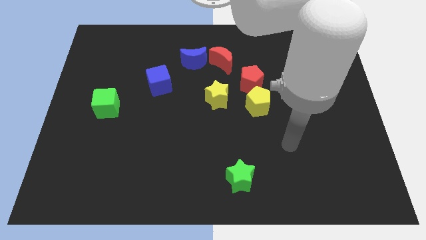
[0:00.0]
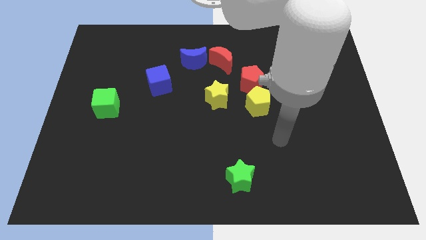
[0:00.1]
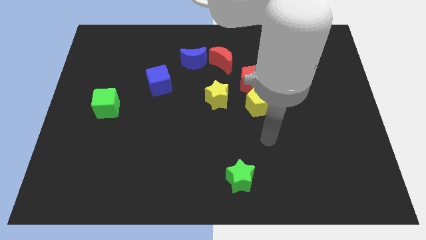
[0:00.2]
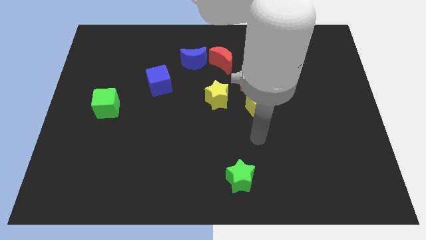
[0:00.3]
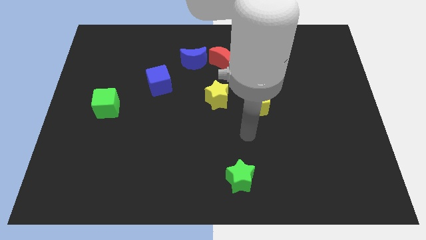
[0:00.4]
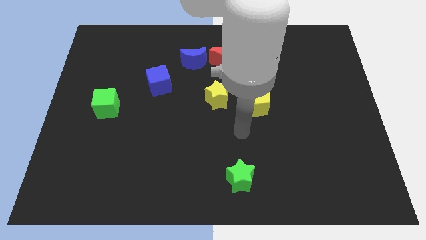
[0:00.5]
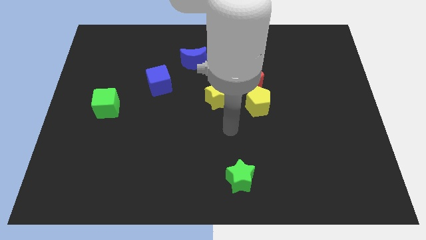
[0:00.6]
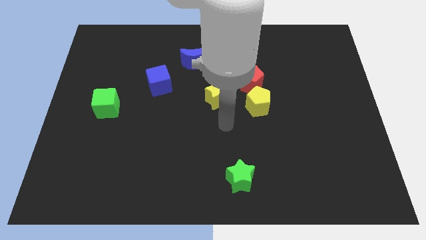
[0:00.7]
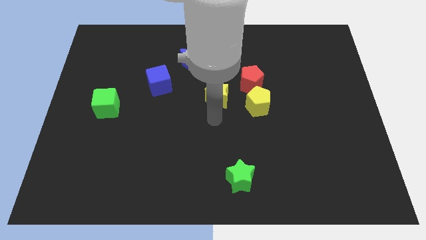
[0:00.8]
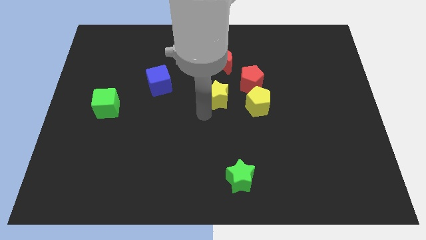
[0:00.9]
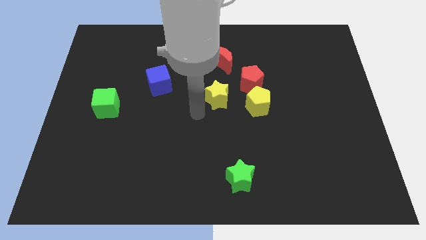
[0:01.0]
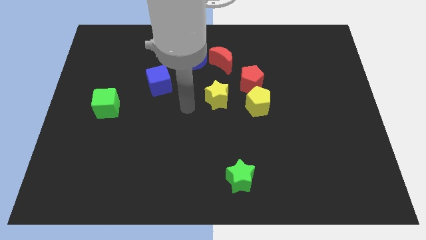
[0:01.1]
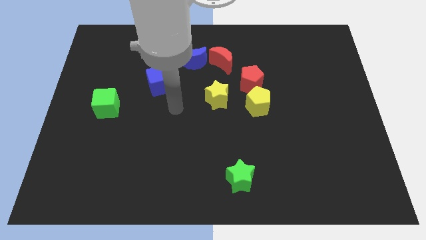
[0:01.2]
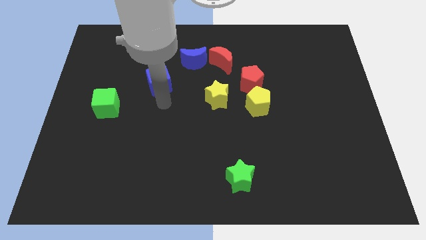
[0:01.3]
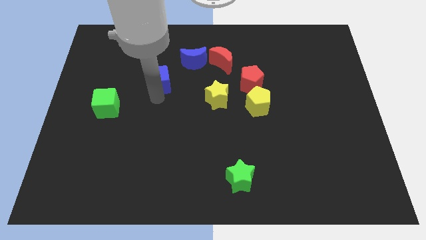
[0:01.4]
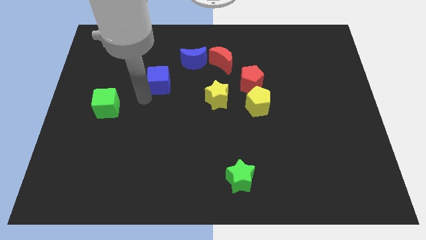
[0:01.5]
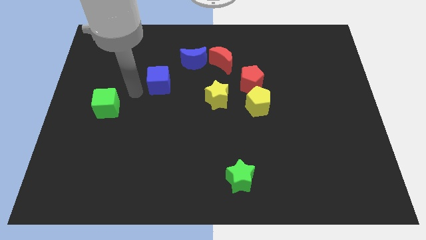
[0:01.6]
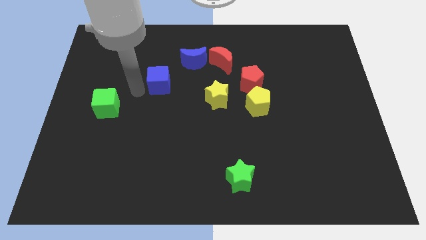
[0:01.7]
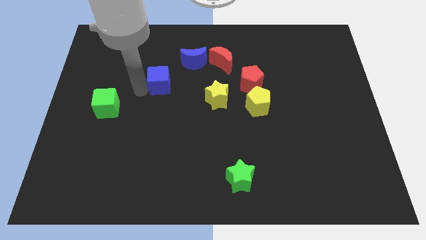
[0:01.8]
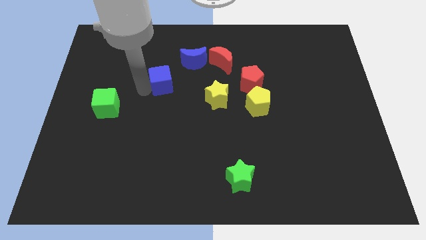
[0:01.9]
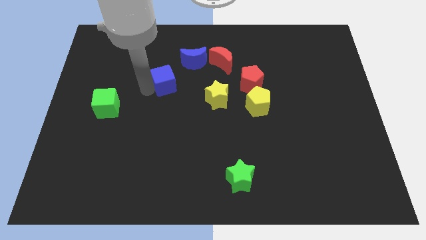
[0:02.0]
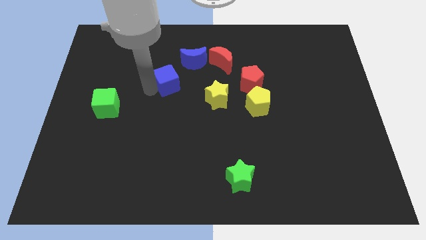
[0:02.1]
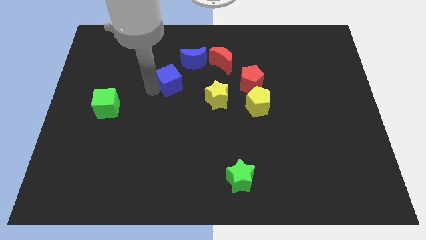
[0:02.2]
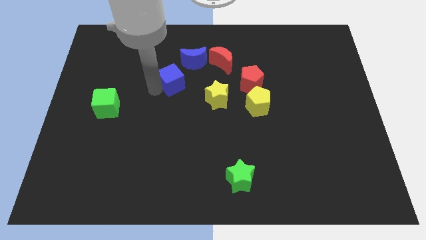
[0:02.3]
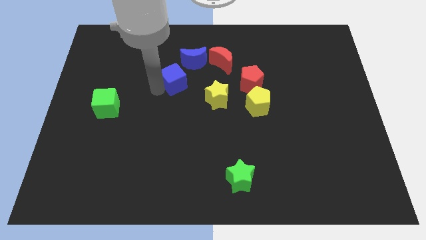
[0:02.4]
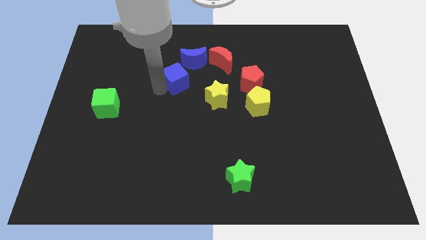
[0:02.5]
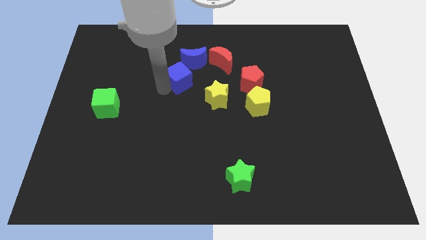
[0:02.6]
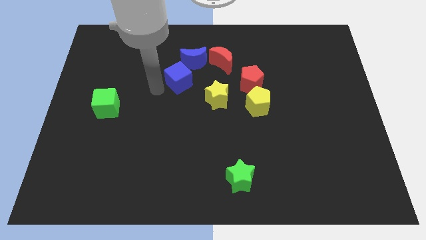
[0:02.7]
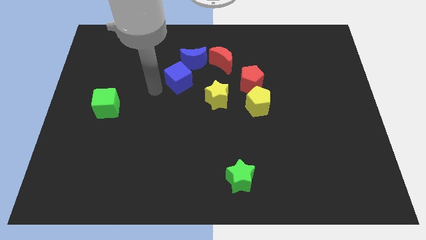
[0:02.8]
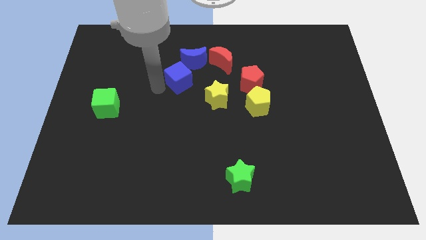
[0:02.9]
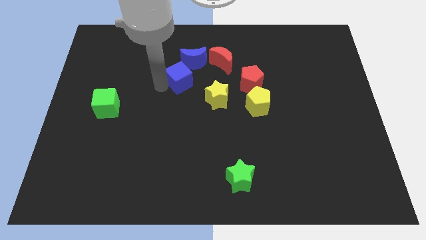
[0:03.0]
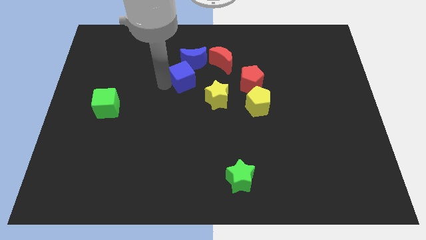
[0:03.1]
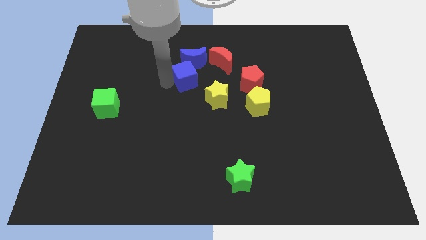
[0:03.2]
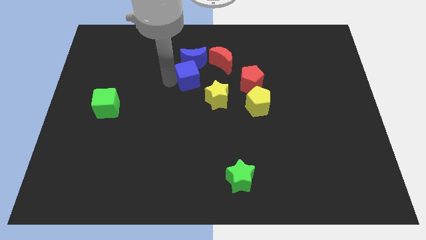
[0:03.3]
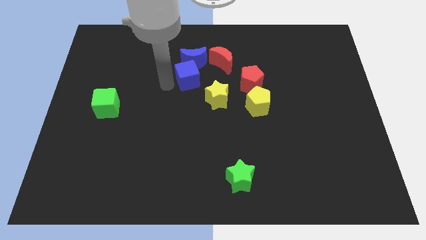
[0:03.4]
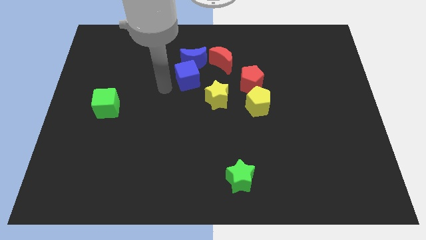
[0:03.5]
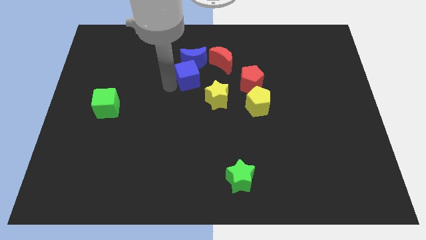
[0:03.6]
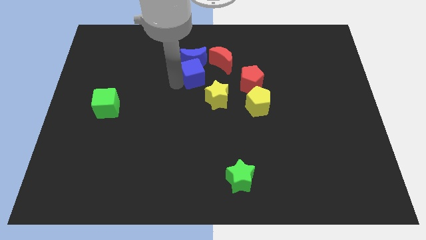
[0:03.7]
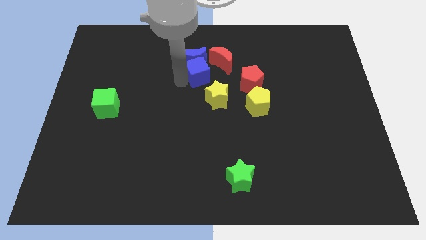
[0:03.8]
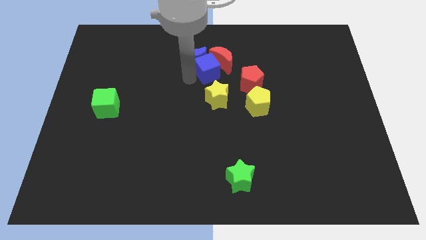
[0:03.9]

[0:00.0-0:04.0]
push the blue cube to the red moon

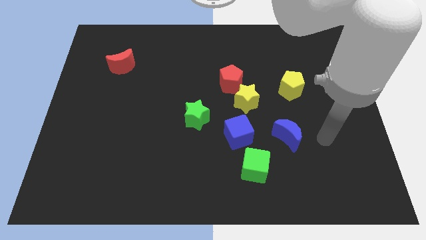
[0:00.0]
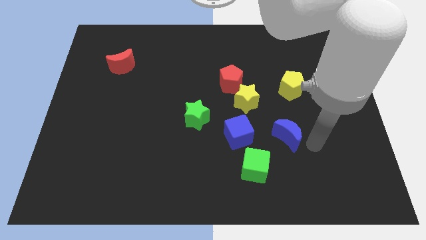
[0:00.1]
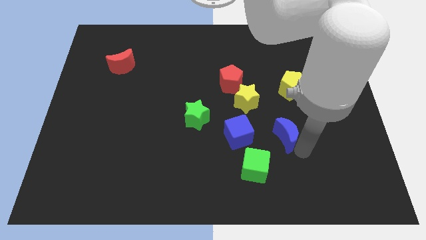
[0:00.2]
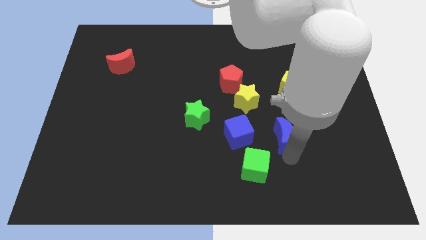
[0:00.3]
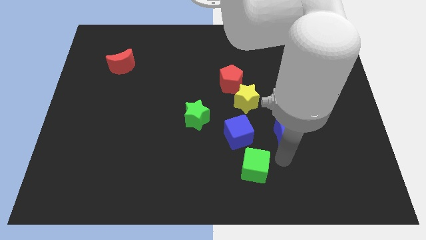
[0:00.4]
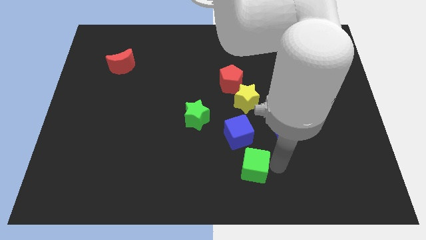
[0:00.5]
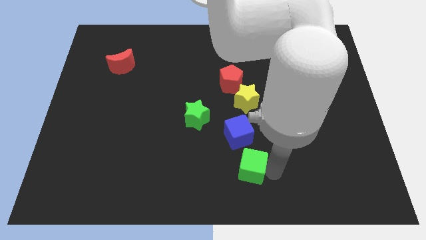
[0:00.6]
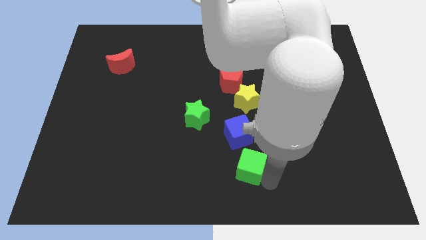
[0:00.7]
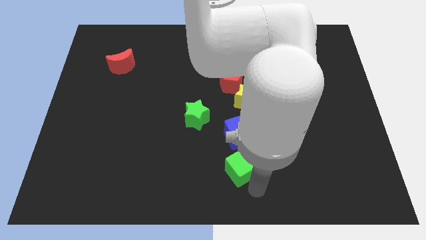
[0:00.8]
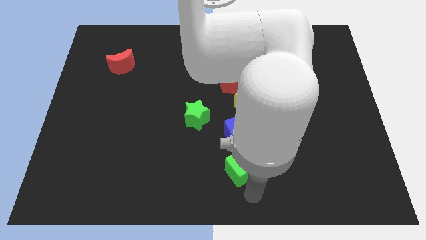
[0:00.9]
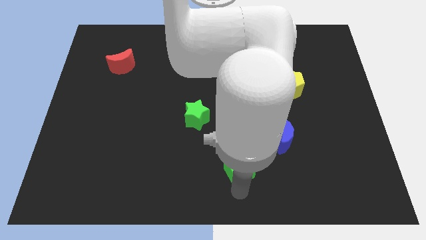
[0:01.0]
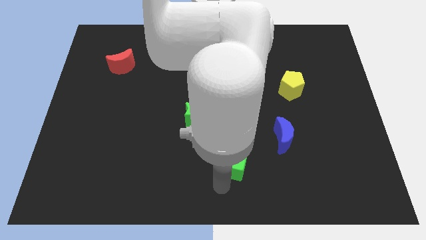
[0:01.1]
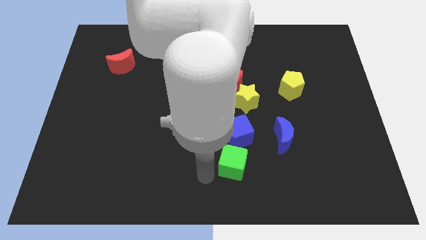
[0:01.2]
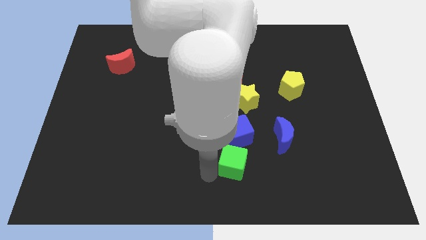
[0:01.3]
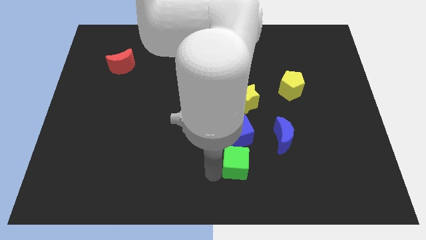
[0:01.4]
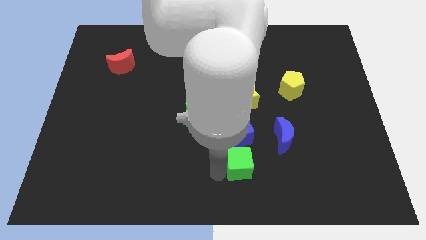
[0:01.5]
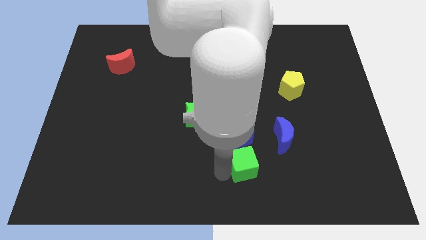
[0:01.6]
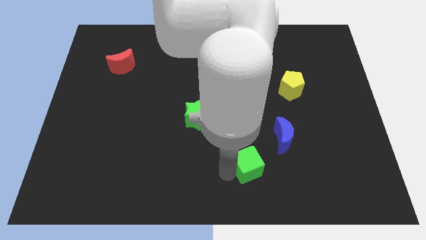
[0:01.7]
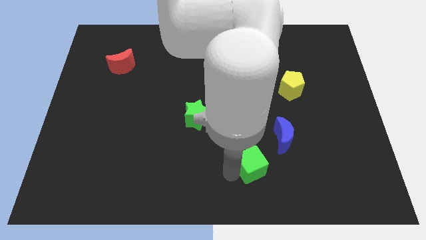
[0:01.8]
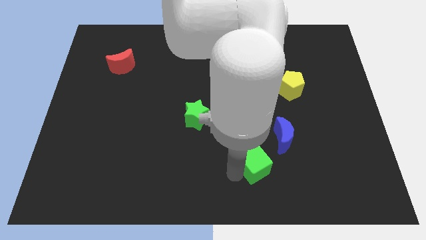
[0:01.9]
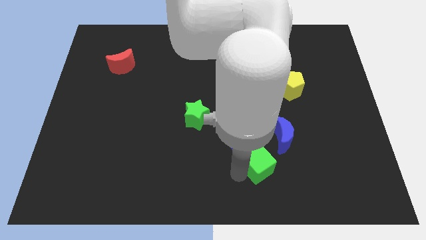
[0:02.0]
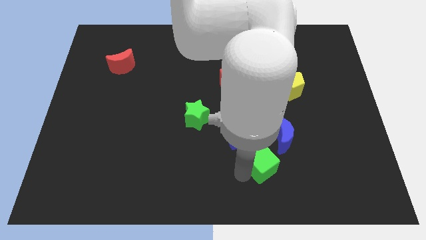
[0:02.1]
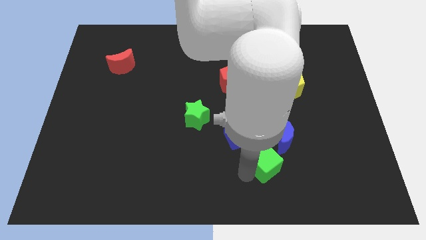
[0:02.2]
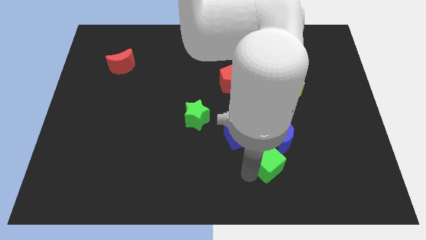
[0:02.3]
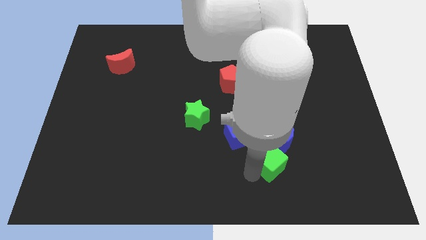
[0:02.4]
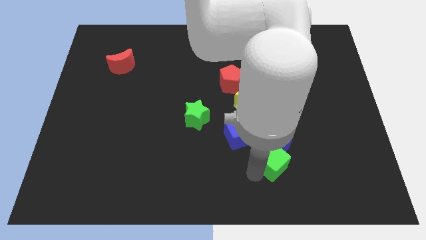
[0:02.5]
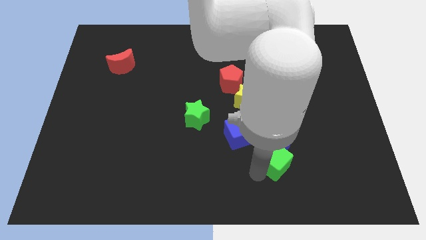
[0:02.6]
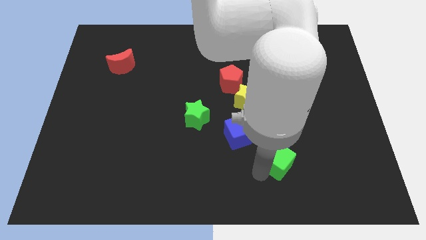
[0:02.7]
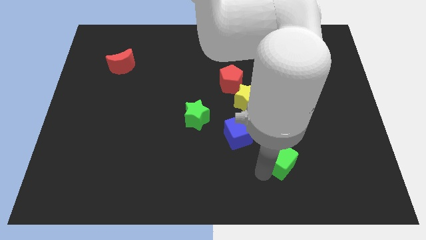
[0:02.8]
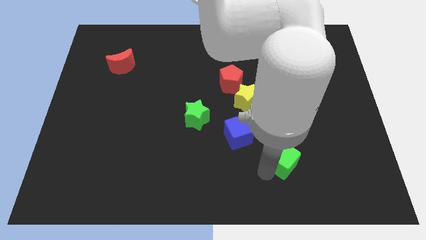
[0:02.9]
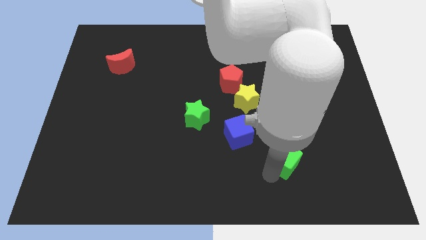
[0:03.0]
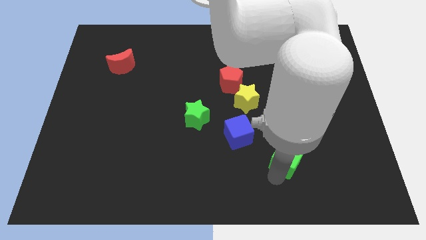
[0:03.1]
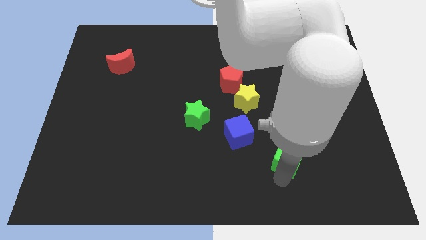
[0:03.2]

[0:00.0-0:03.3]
move the green cube towards the blue moon

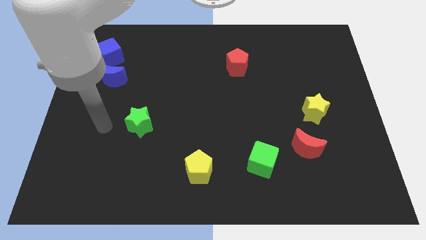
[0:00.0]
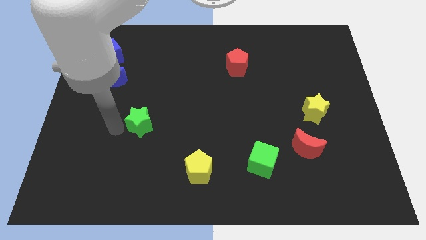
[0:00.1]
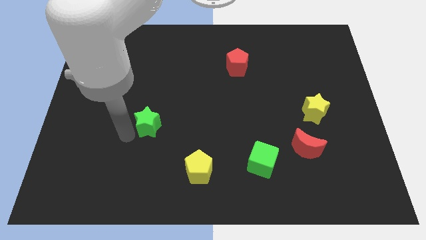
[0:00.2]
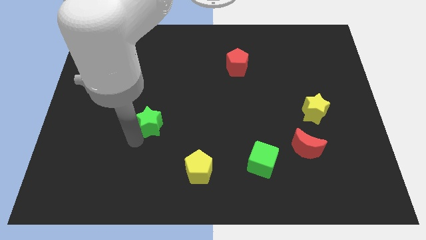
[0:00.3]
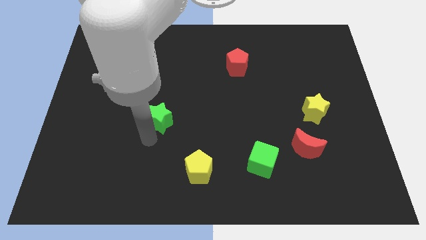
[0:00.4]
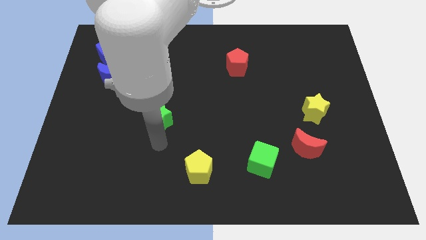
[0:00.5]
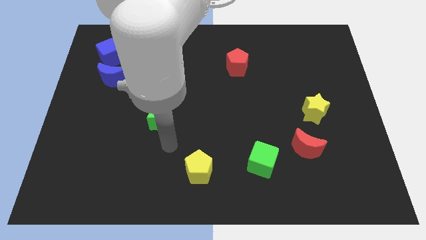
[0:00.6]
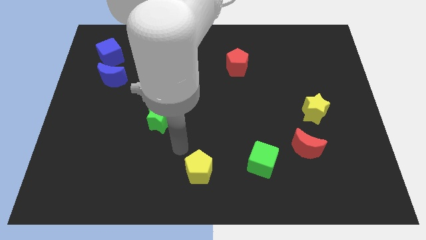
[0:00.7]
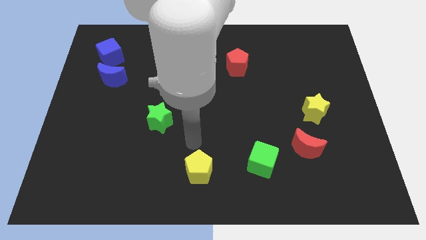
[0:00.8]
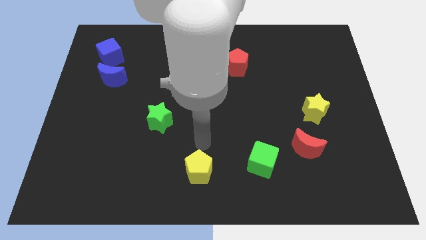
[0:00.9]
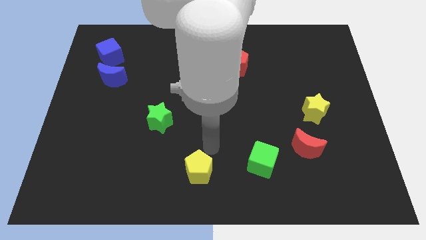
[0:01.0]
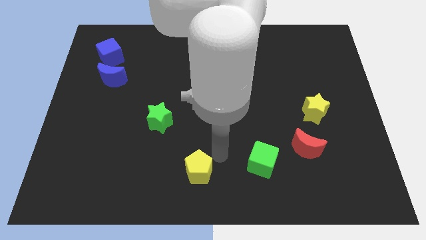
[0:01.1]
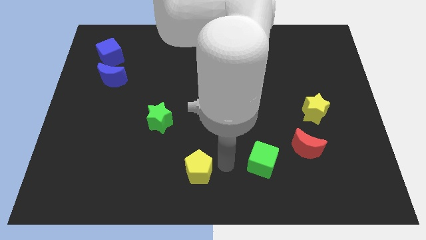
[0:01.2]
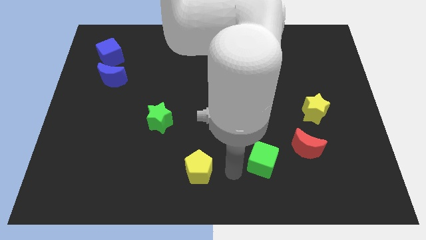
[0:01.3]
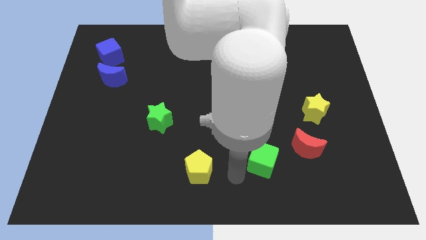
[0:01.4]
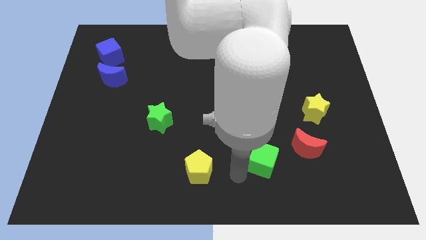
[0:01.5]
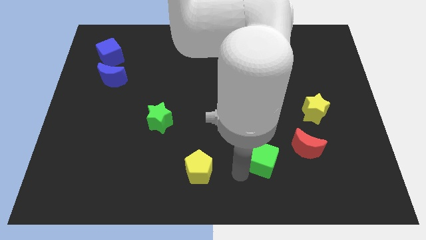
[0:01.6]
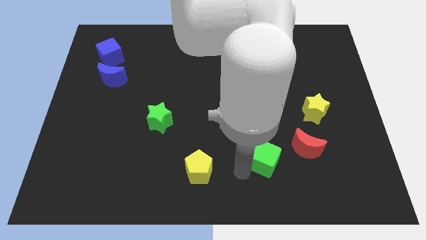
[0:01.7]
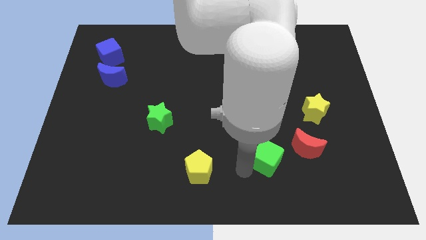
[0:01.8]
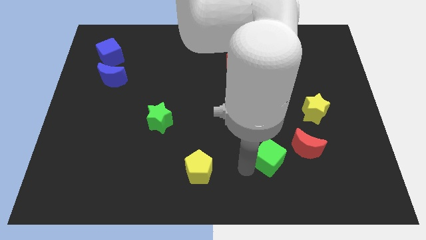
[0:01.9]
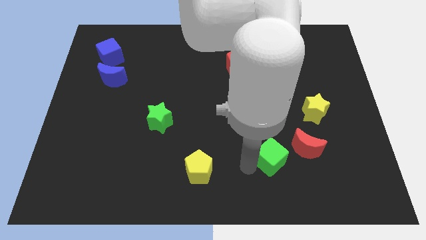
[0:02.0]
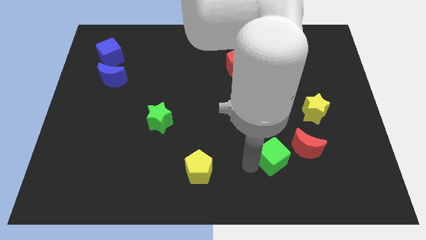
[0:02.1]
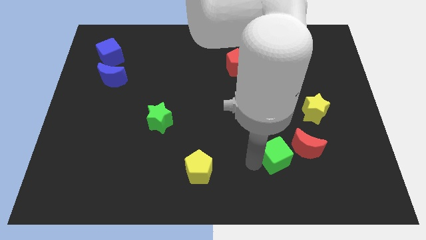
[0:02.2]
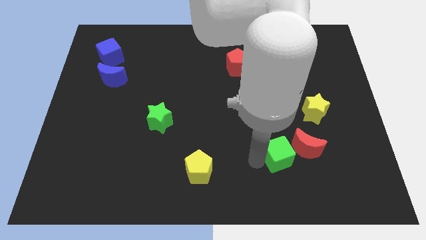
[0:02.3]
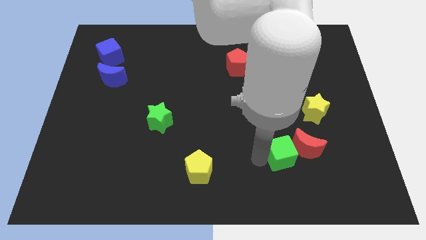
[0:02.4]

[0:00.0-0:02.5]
slide the green cube close to the red moon
